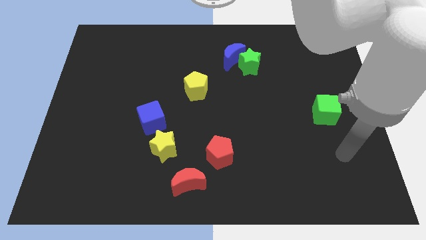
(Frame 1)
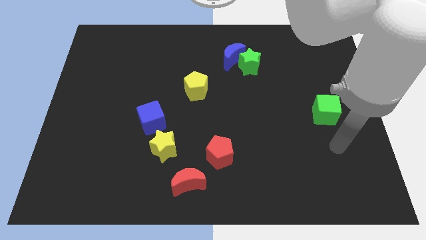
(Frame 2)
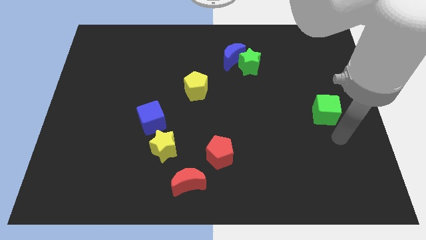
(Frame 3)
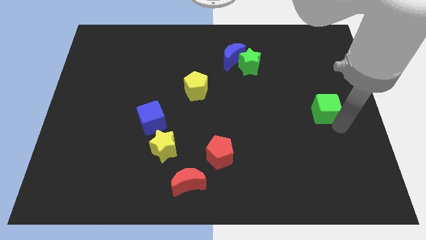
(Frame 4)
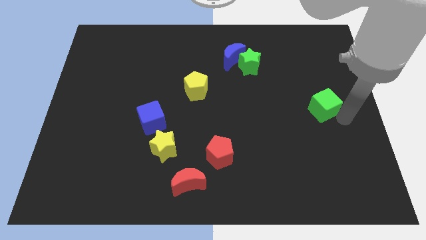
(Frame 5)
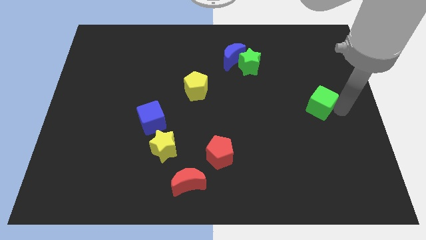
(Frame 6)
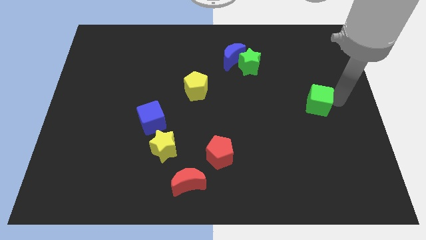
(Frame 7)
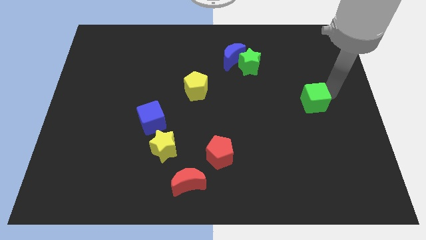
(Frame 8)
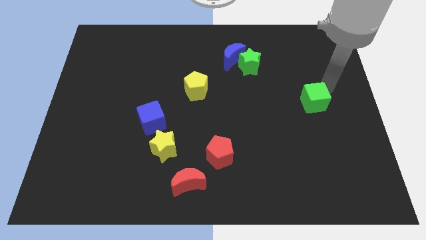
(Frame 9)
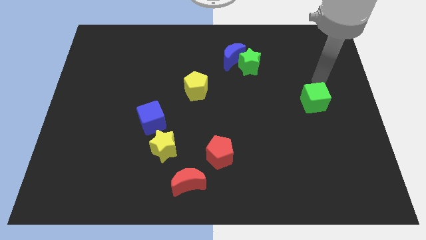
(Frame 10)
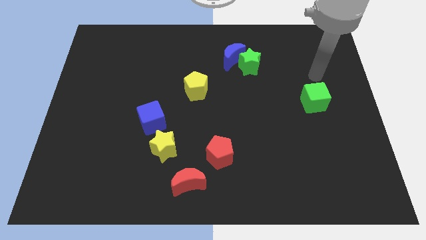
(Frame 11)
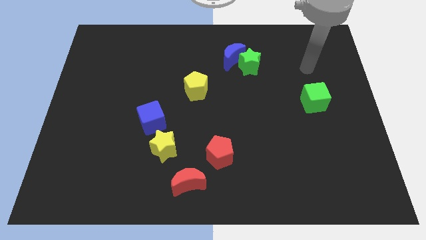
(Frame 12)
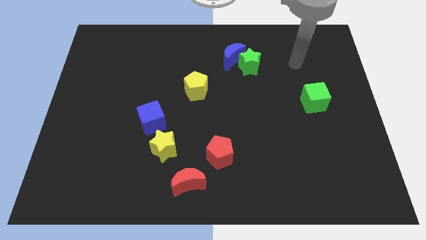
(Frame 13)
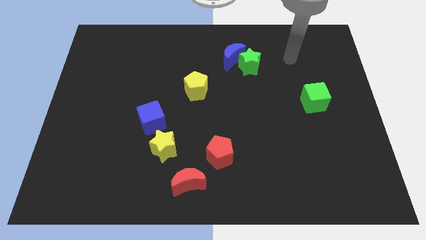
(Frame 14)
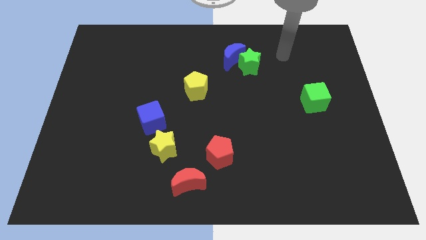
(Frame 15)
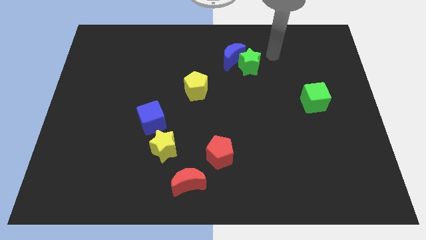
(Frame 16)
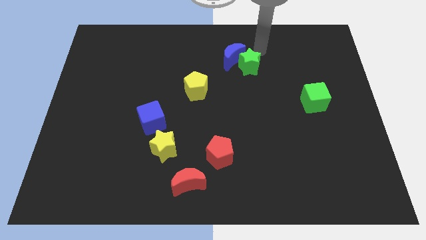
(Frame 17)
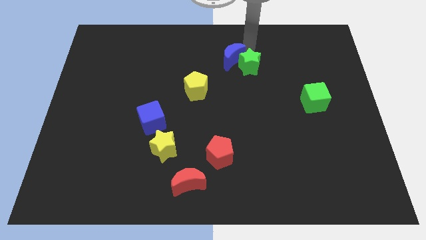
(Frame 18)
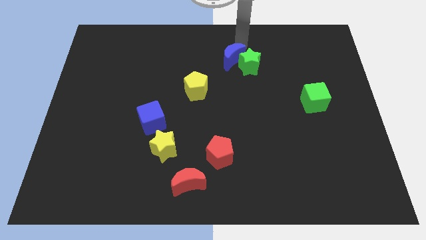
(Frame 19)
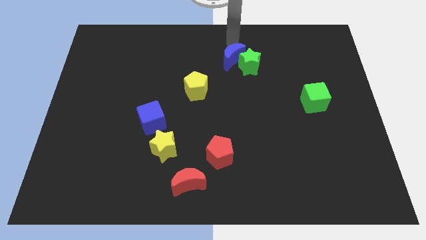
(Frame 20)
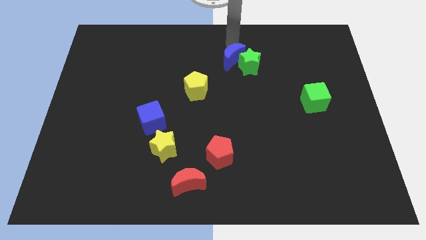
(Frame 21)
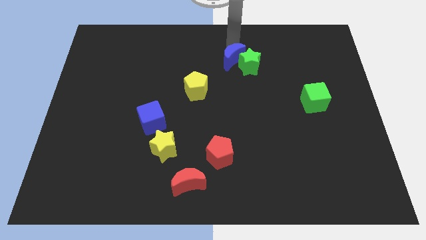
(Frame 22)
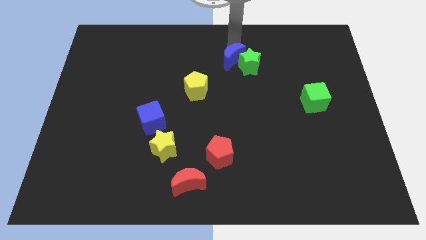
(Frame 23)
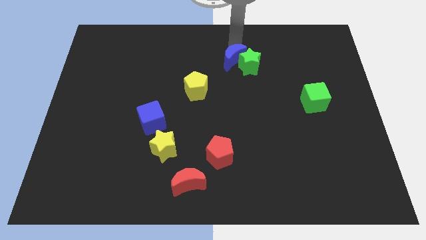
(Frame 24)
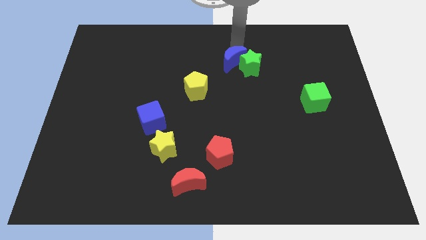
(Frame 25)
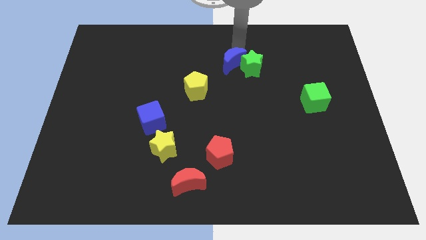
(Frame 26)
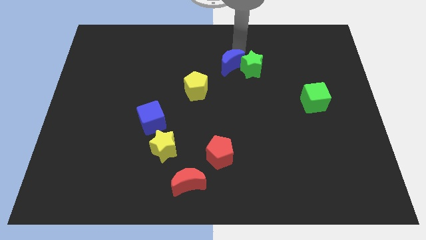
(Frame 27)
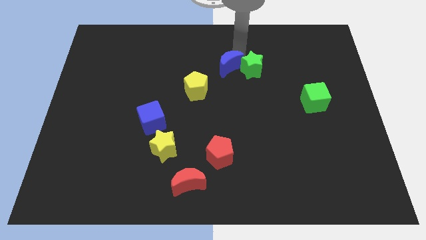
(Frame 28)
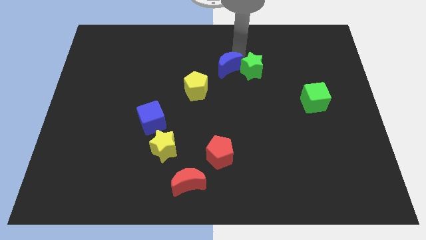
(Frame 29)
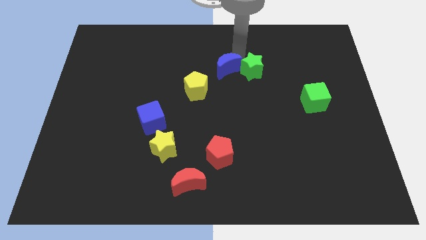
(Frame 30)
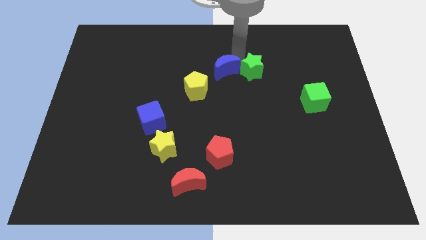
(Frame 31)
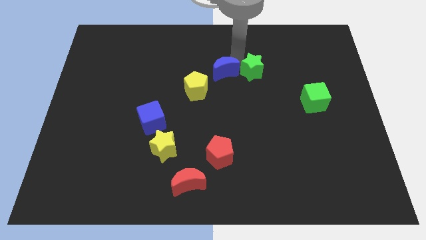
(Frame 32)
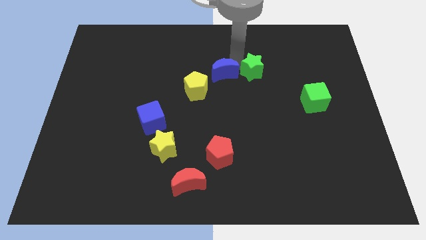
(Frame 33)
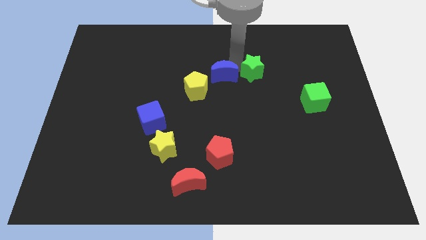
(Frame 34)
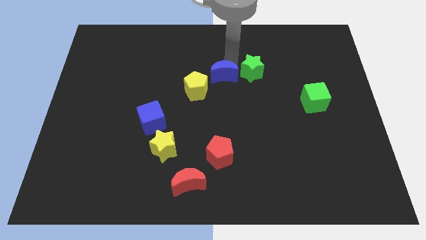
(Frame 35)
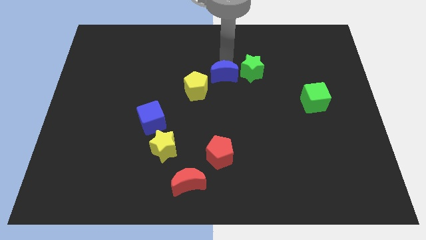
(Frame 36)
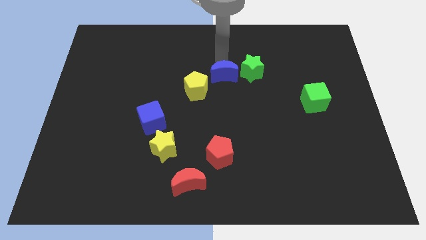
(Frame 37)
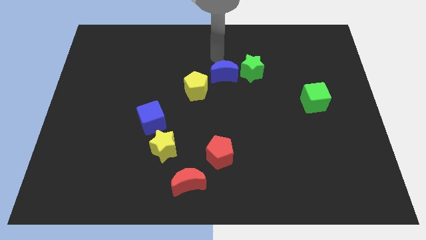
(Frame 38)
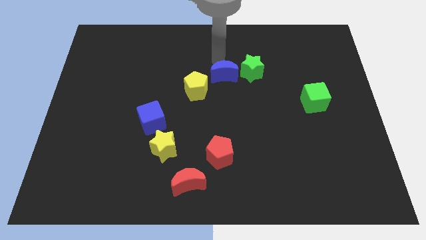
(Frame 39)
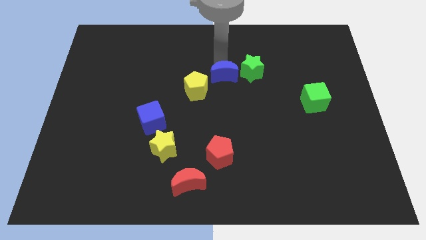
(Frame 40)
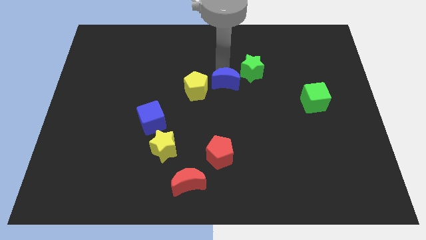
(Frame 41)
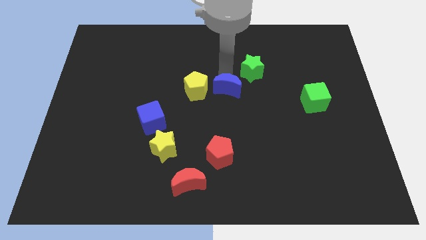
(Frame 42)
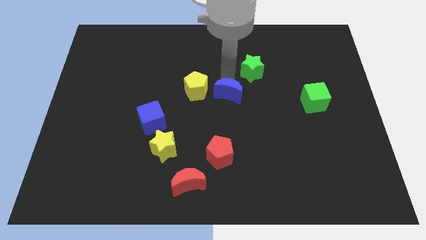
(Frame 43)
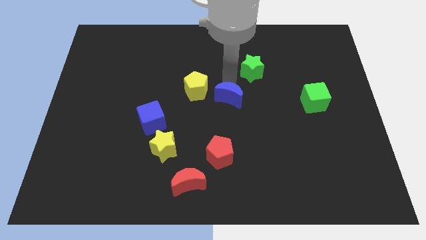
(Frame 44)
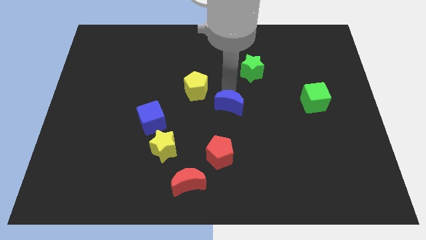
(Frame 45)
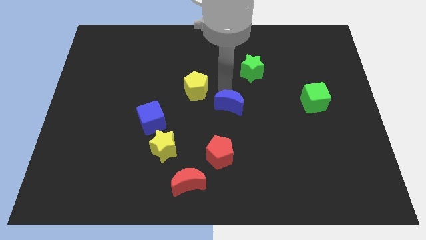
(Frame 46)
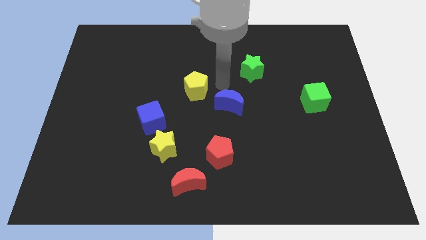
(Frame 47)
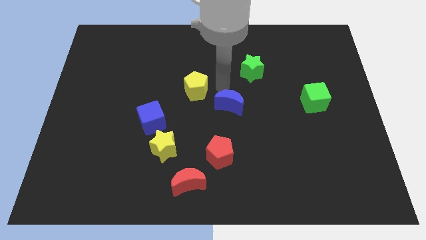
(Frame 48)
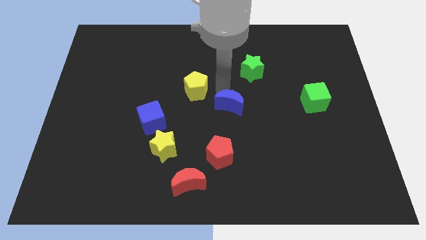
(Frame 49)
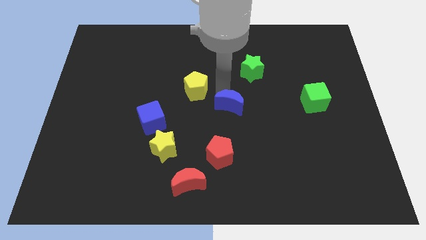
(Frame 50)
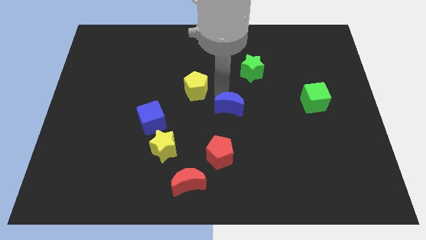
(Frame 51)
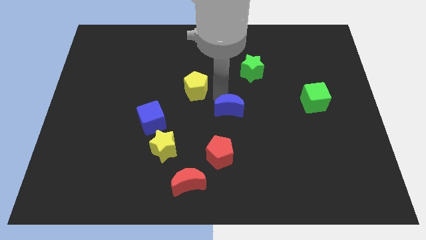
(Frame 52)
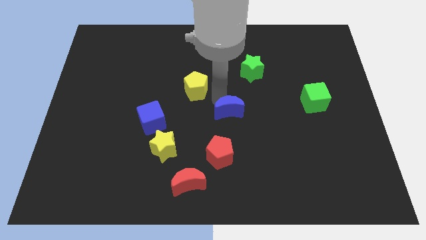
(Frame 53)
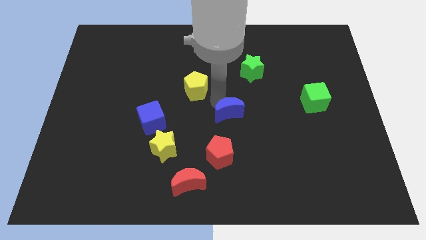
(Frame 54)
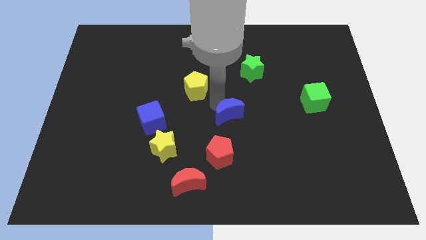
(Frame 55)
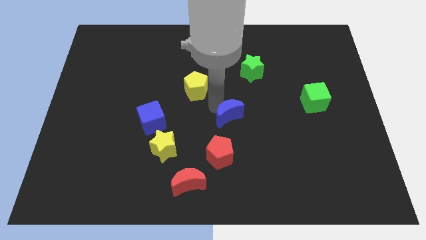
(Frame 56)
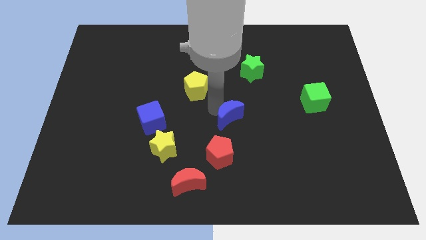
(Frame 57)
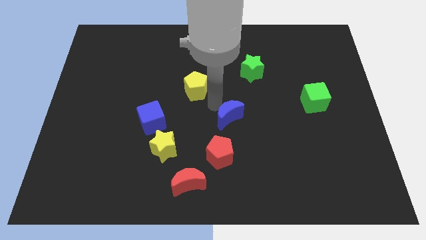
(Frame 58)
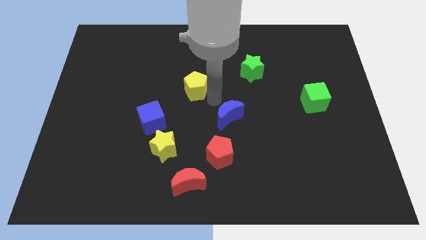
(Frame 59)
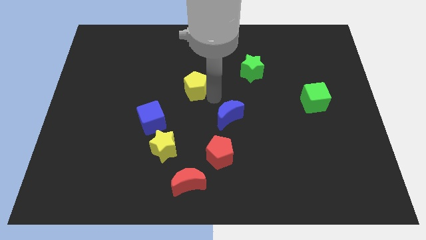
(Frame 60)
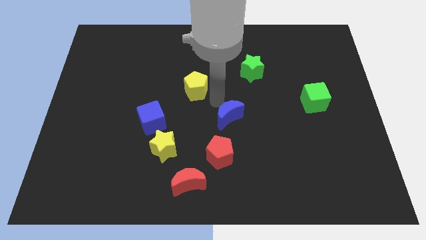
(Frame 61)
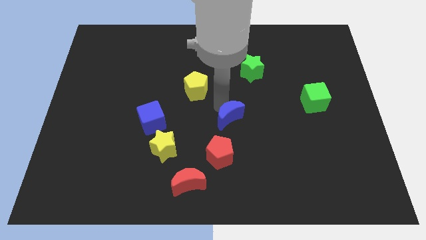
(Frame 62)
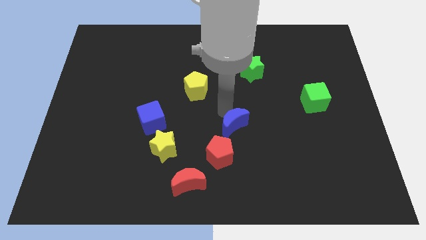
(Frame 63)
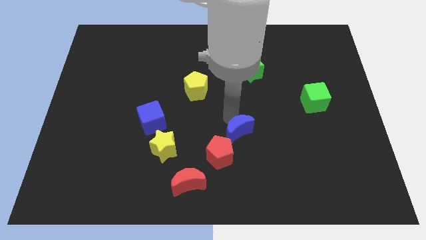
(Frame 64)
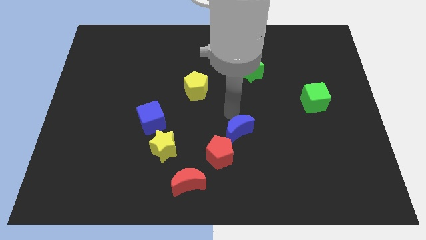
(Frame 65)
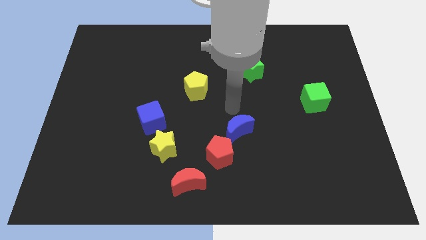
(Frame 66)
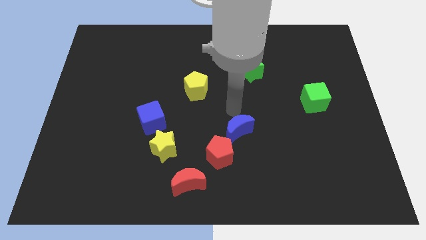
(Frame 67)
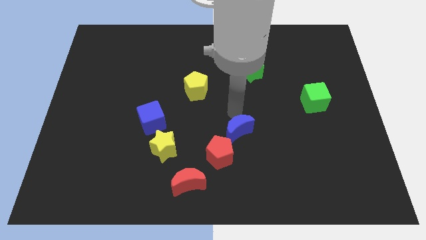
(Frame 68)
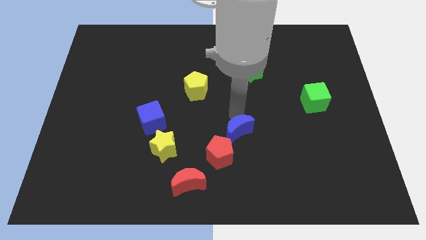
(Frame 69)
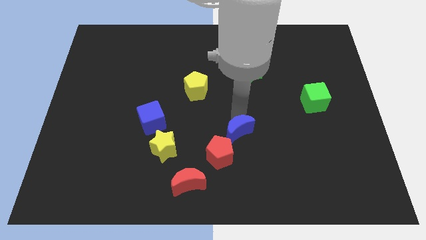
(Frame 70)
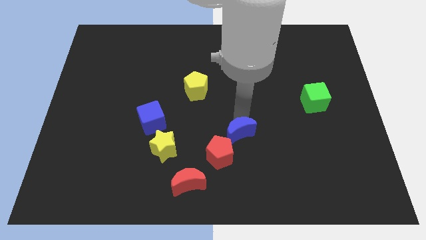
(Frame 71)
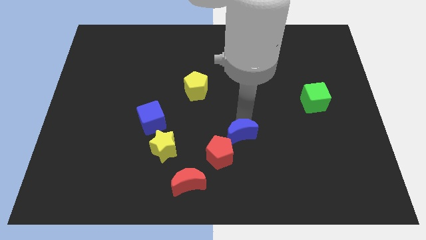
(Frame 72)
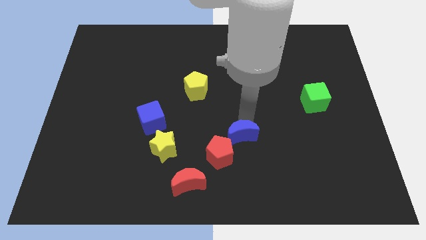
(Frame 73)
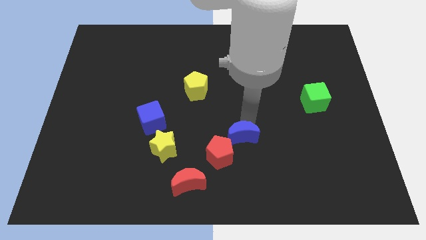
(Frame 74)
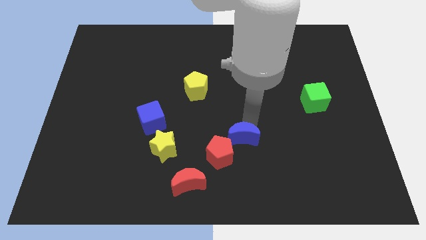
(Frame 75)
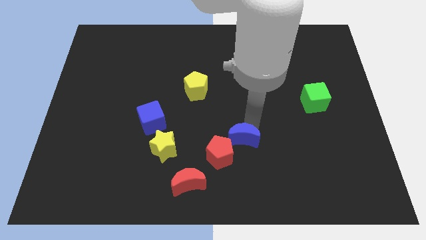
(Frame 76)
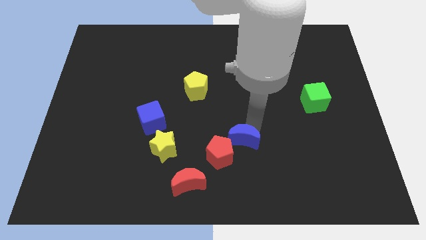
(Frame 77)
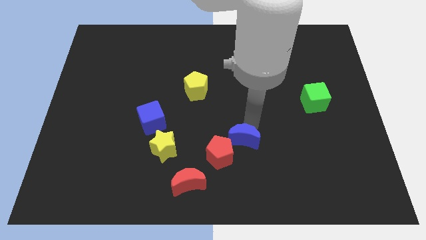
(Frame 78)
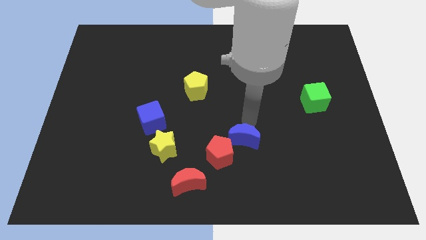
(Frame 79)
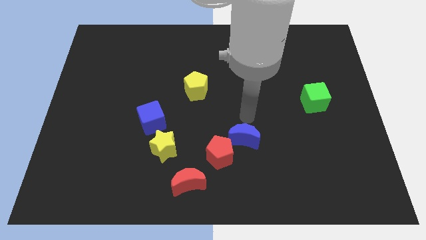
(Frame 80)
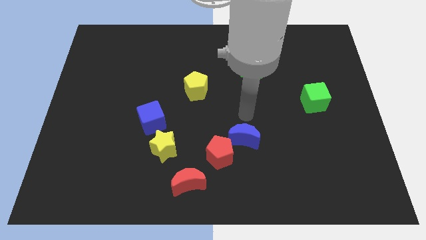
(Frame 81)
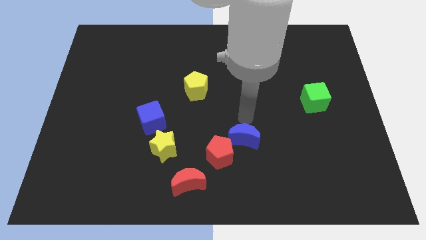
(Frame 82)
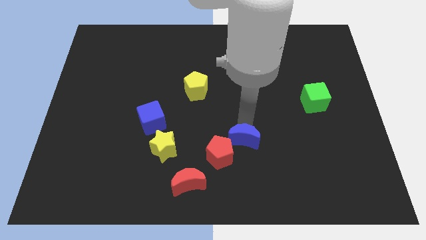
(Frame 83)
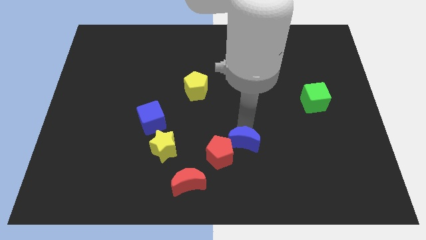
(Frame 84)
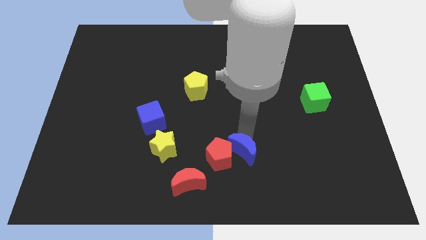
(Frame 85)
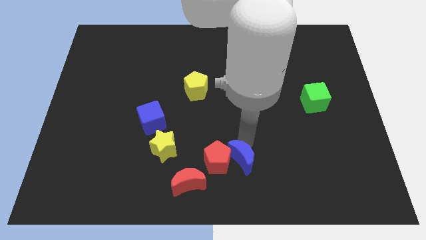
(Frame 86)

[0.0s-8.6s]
slide the blue moon to the bottom
